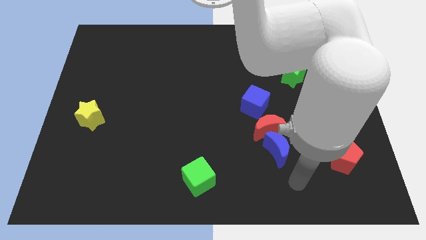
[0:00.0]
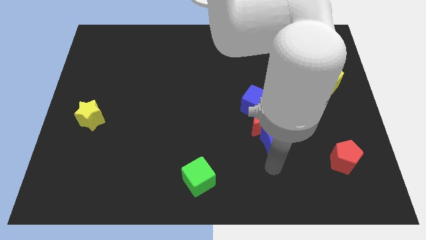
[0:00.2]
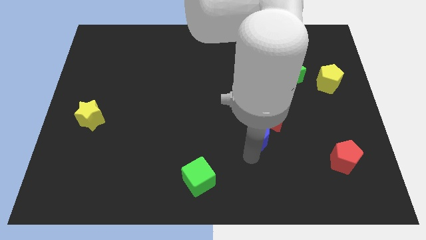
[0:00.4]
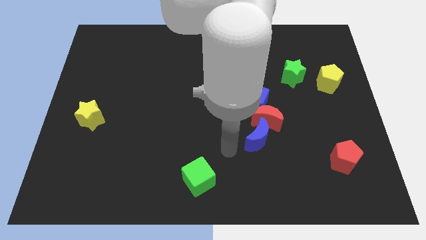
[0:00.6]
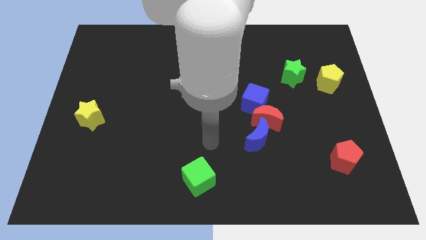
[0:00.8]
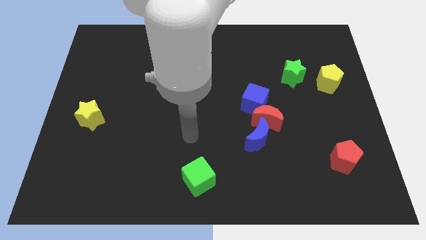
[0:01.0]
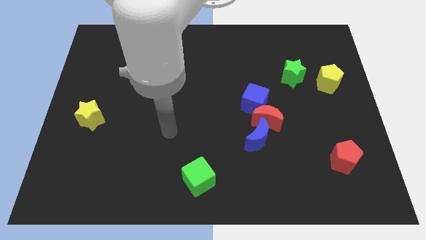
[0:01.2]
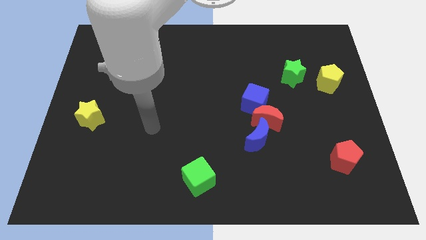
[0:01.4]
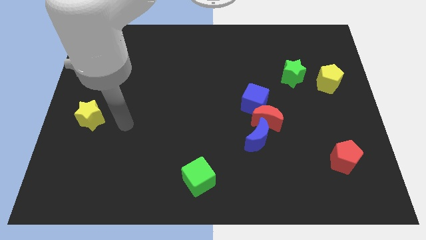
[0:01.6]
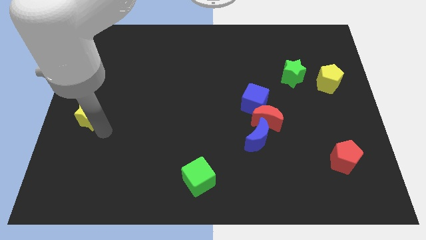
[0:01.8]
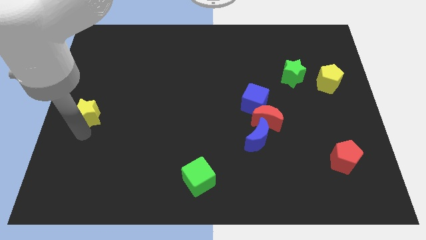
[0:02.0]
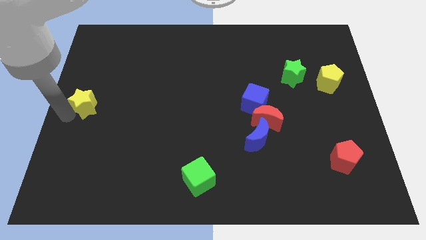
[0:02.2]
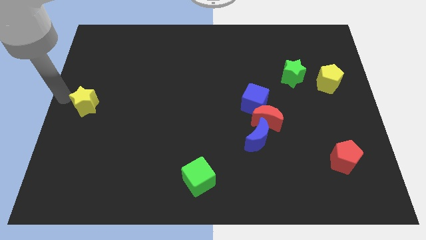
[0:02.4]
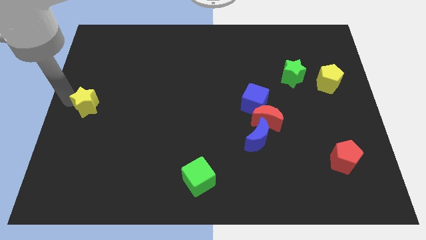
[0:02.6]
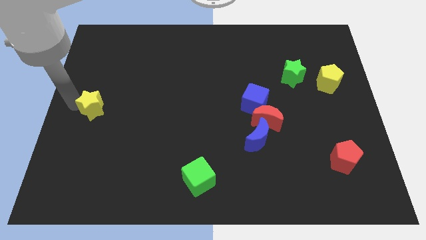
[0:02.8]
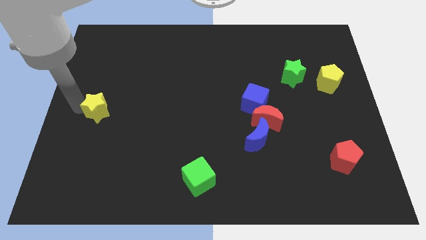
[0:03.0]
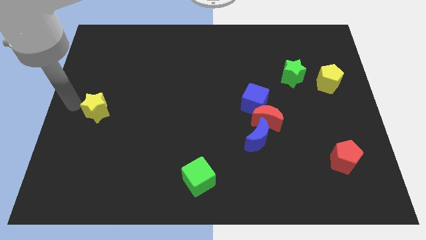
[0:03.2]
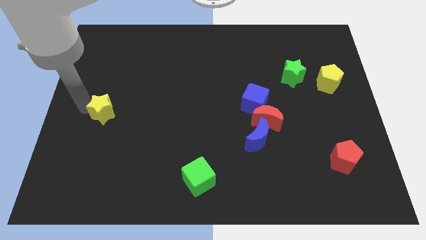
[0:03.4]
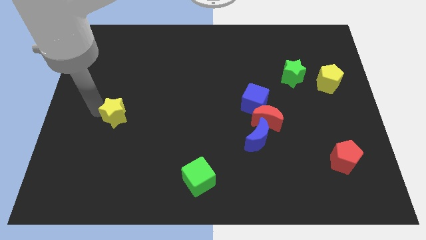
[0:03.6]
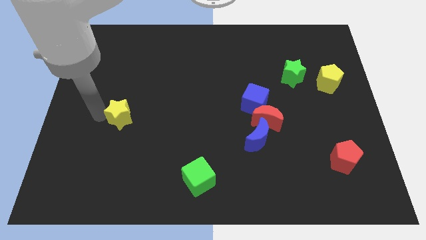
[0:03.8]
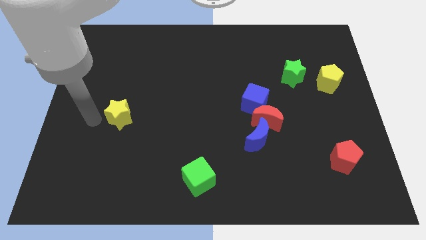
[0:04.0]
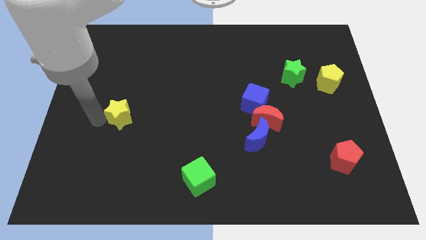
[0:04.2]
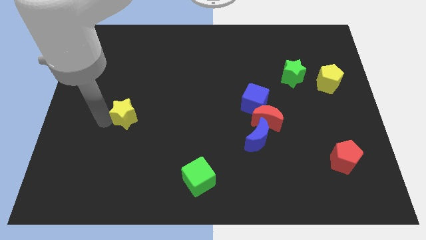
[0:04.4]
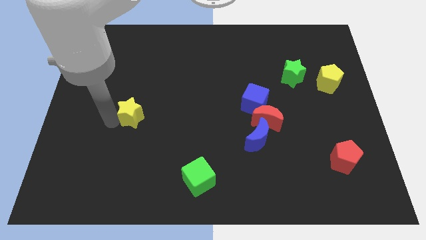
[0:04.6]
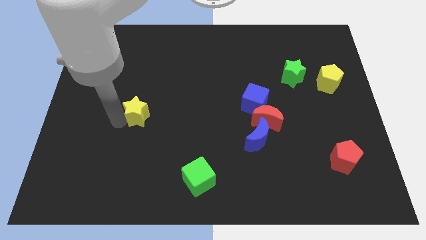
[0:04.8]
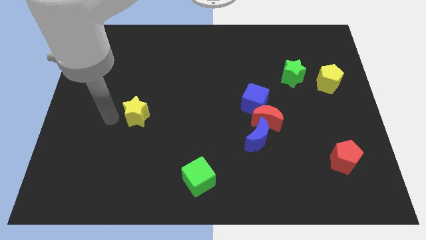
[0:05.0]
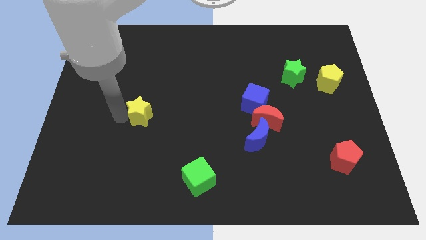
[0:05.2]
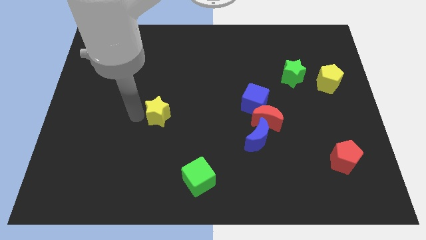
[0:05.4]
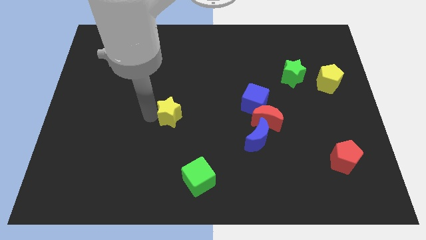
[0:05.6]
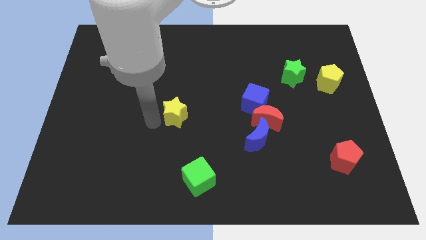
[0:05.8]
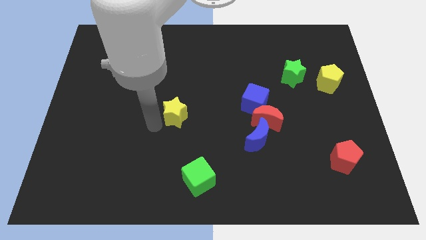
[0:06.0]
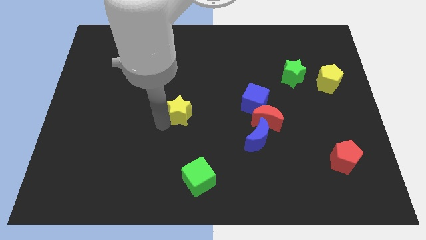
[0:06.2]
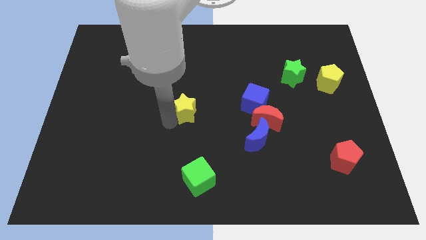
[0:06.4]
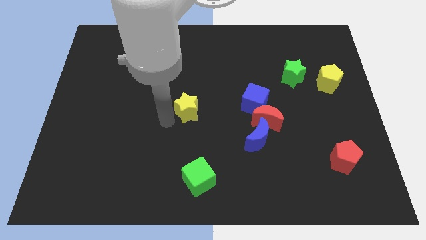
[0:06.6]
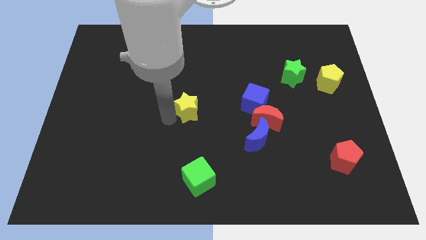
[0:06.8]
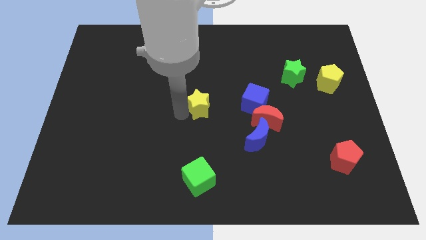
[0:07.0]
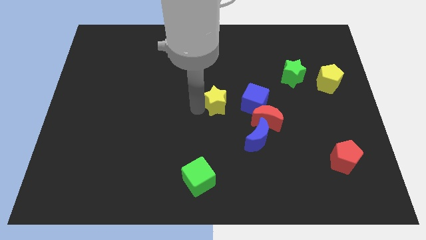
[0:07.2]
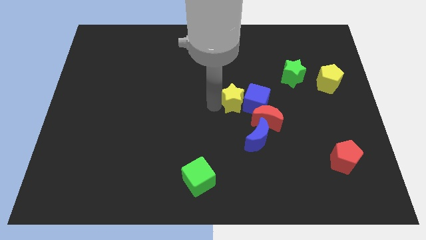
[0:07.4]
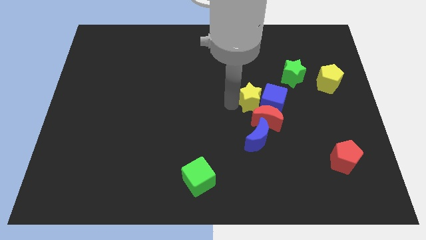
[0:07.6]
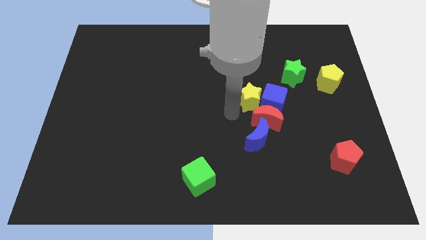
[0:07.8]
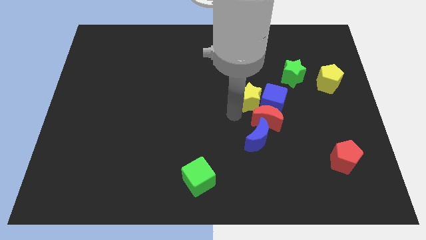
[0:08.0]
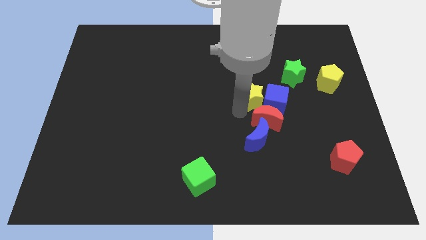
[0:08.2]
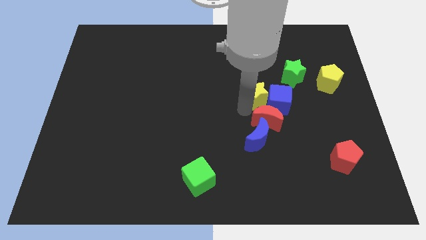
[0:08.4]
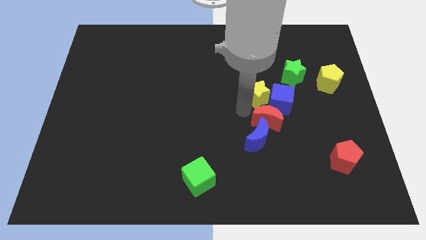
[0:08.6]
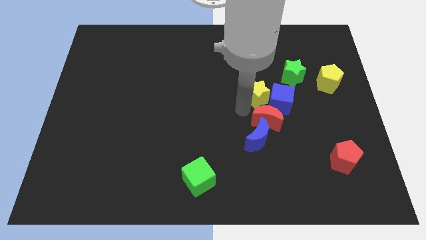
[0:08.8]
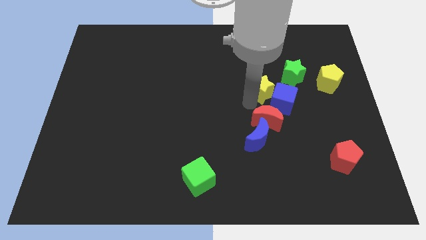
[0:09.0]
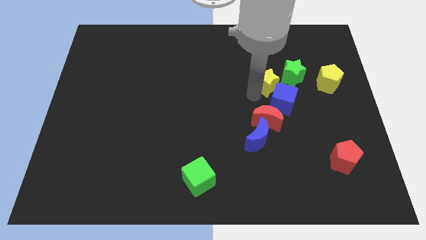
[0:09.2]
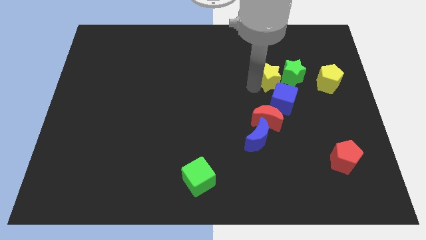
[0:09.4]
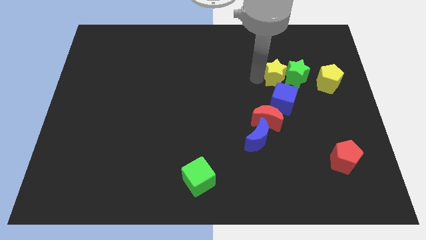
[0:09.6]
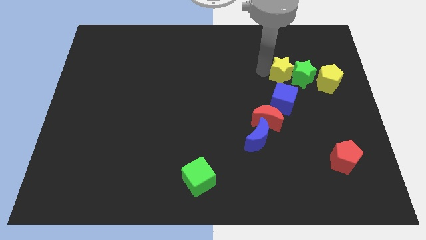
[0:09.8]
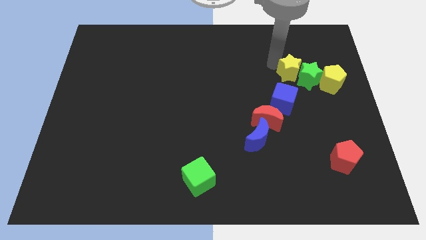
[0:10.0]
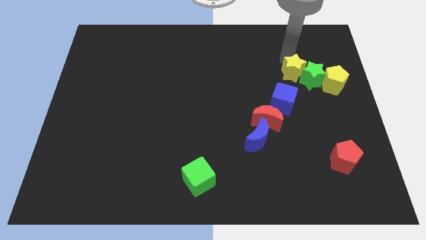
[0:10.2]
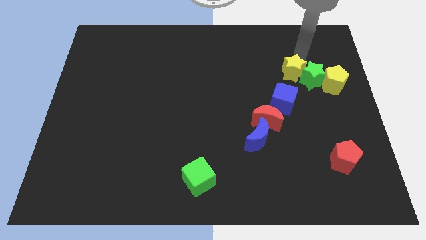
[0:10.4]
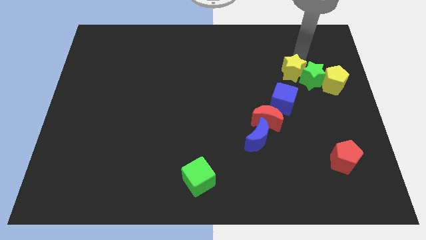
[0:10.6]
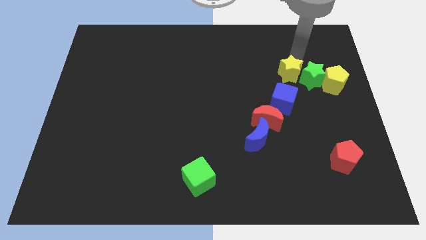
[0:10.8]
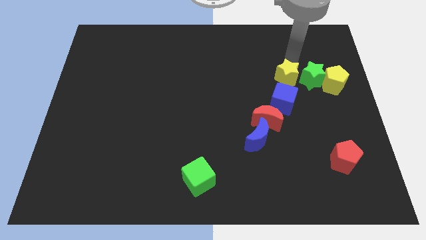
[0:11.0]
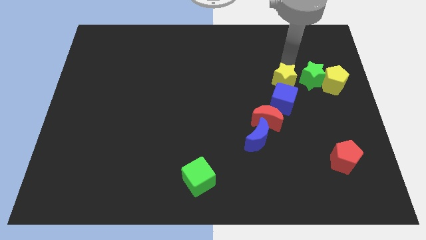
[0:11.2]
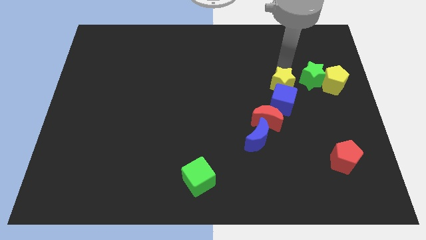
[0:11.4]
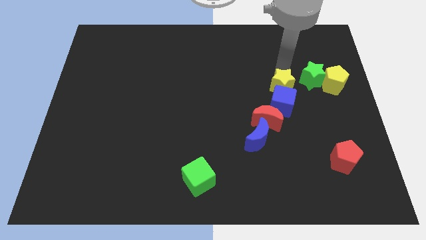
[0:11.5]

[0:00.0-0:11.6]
slide the yellow star diagonally up and to the right of the red moon

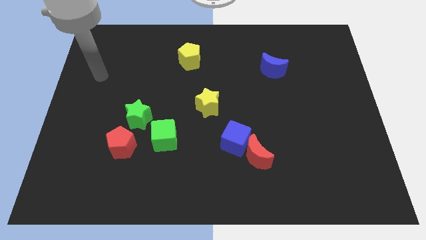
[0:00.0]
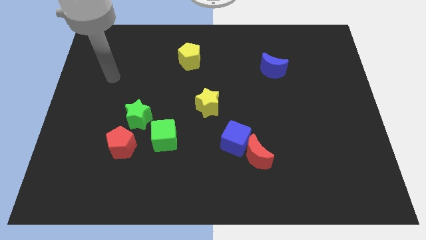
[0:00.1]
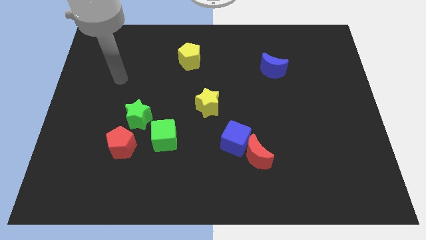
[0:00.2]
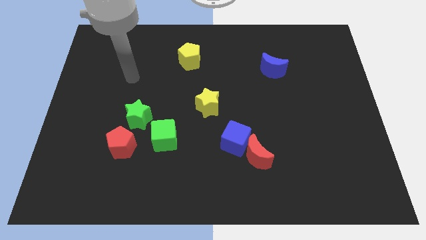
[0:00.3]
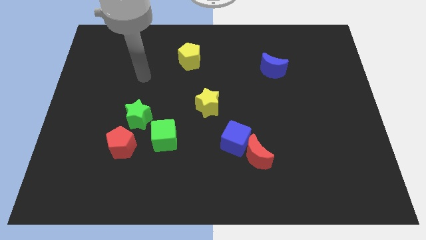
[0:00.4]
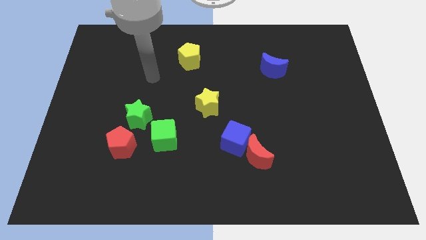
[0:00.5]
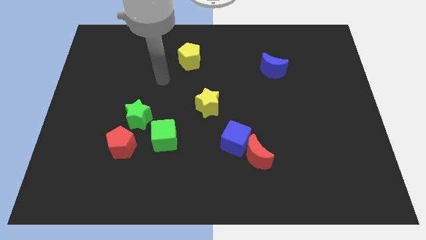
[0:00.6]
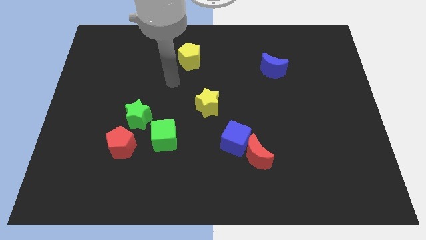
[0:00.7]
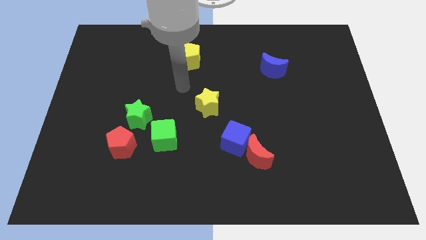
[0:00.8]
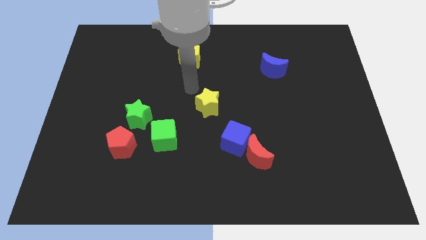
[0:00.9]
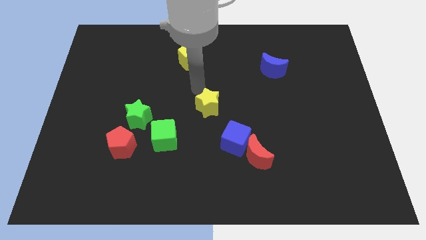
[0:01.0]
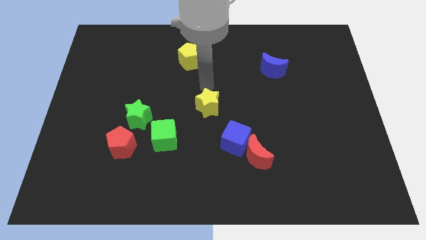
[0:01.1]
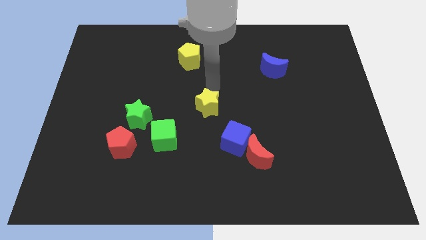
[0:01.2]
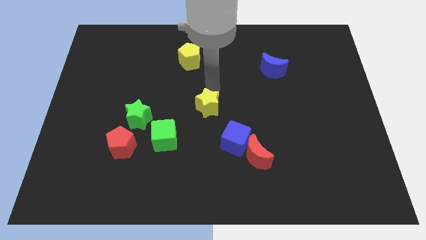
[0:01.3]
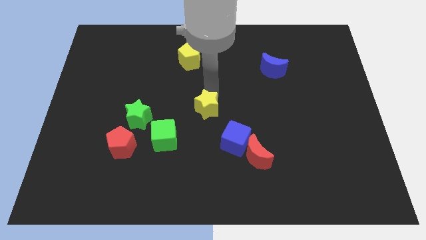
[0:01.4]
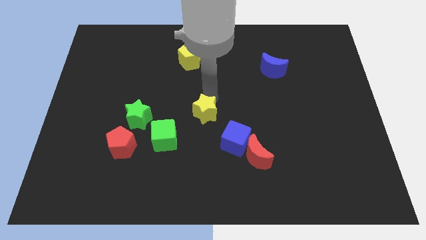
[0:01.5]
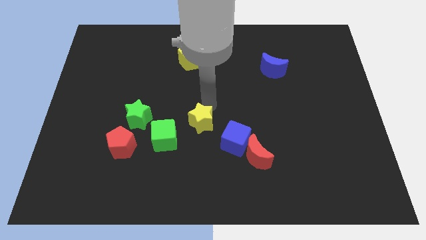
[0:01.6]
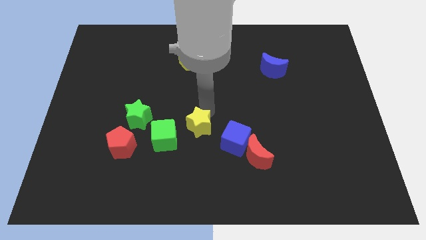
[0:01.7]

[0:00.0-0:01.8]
put the yellow star to the left side of the blue cube

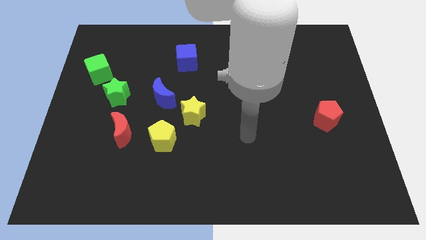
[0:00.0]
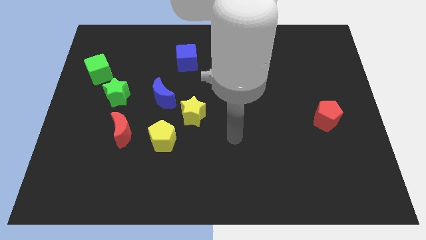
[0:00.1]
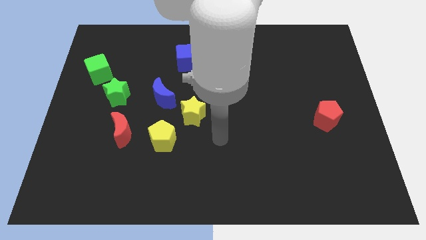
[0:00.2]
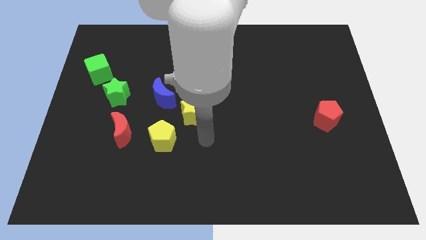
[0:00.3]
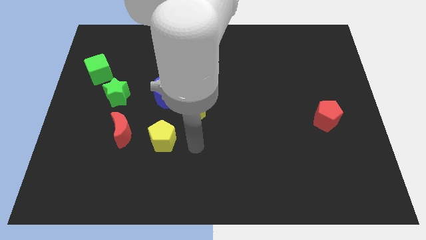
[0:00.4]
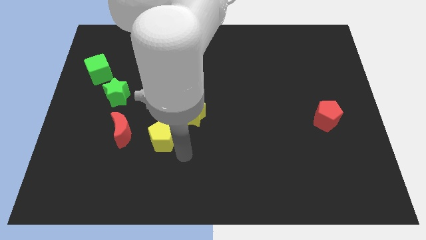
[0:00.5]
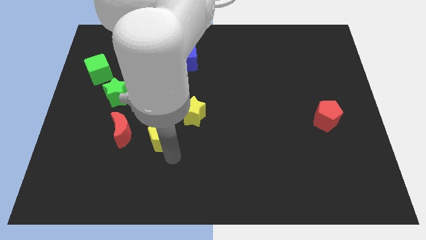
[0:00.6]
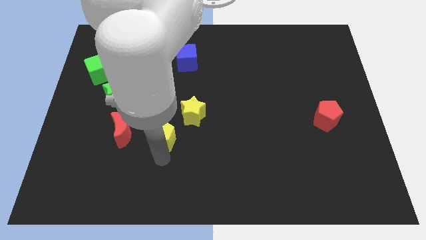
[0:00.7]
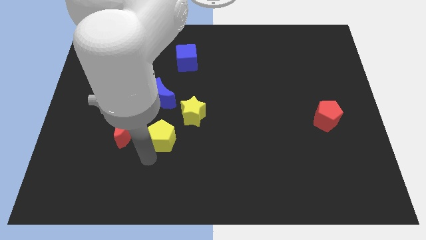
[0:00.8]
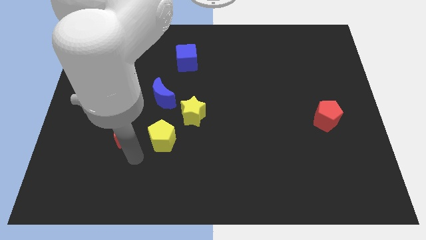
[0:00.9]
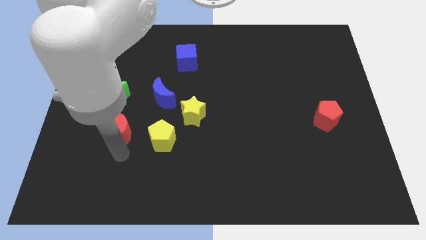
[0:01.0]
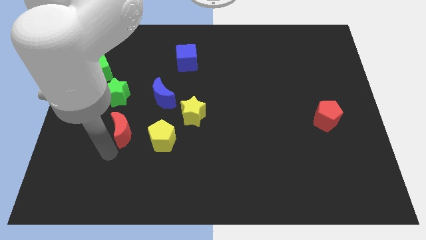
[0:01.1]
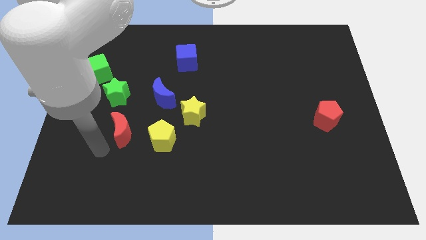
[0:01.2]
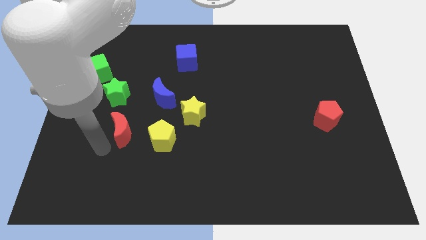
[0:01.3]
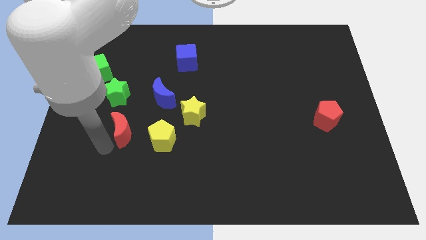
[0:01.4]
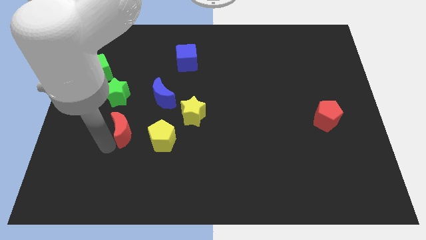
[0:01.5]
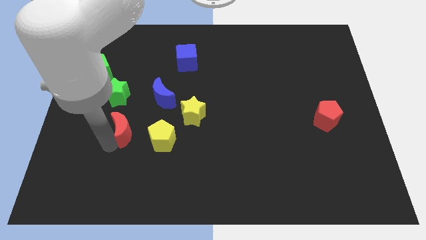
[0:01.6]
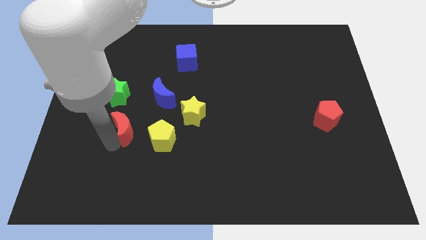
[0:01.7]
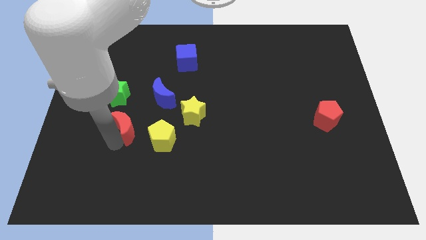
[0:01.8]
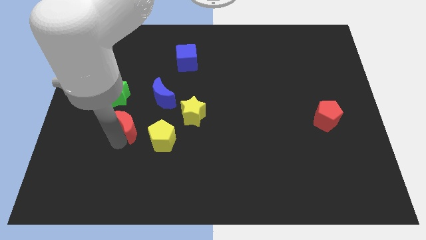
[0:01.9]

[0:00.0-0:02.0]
push the red moon to the left of the yellow star
